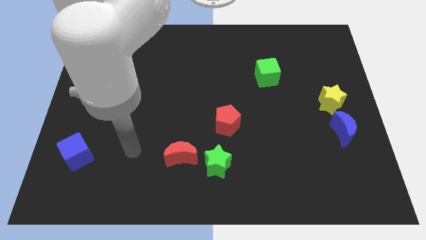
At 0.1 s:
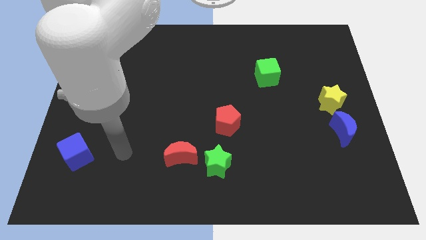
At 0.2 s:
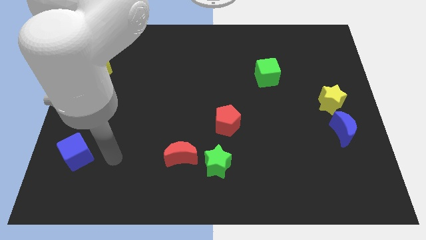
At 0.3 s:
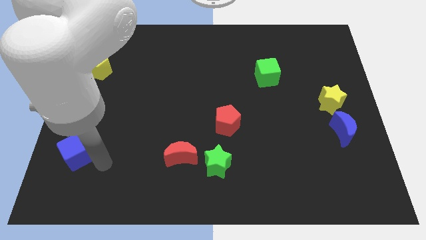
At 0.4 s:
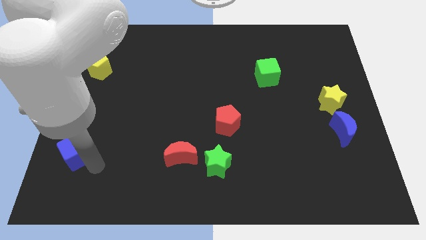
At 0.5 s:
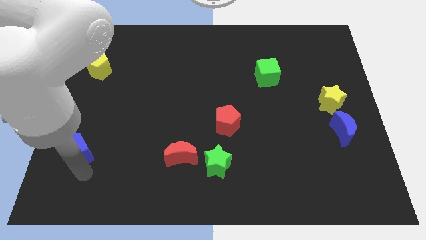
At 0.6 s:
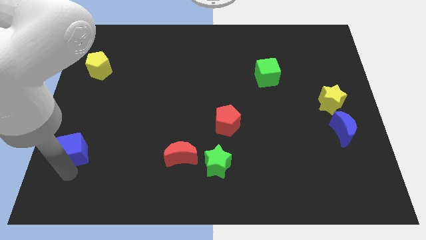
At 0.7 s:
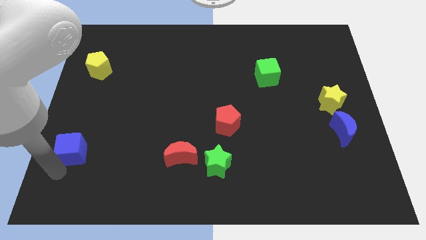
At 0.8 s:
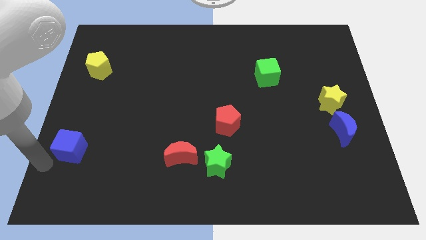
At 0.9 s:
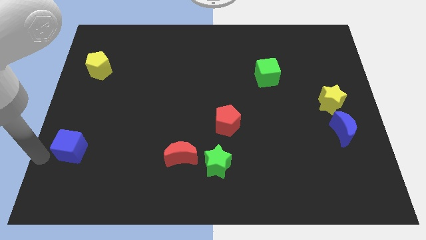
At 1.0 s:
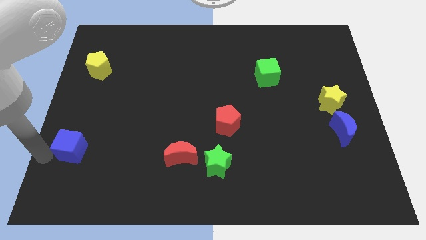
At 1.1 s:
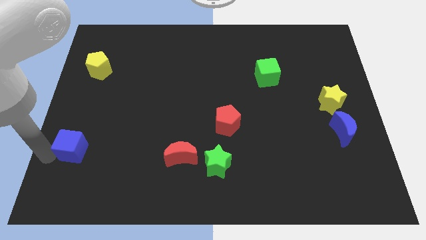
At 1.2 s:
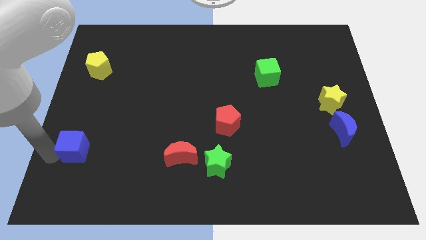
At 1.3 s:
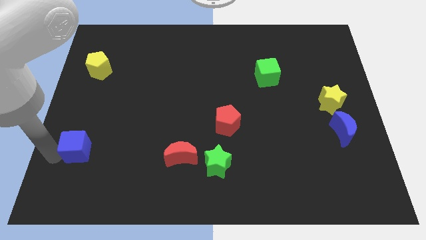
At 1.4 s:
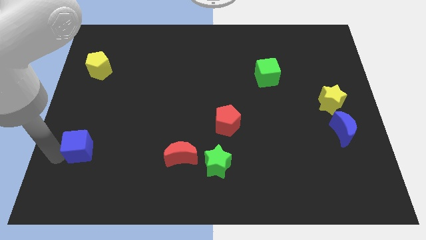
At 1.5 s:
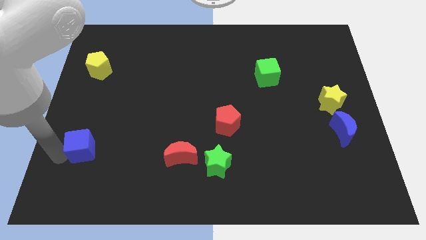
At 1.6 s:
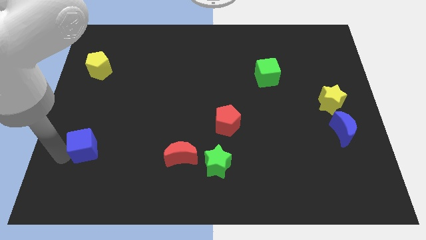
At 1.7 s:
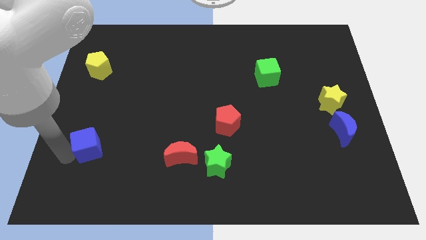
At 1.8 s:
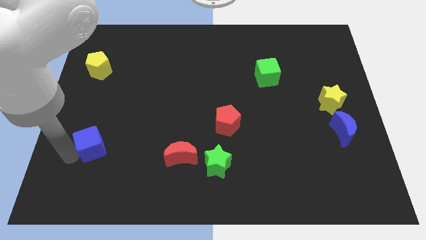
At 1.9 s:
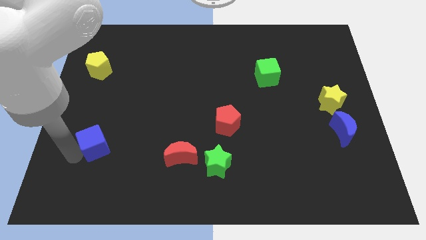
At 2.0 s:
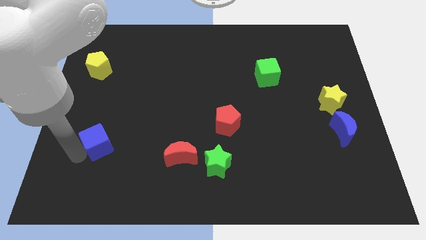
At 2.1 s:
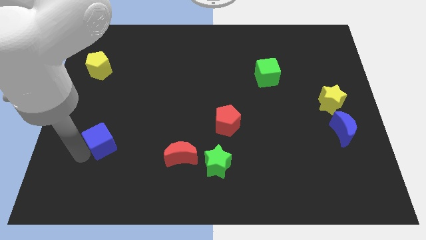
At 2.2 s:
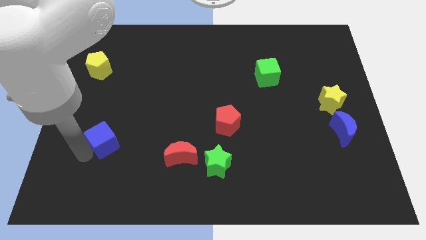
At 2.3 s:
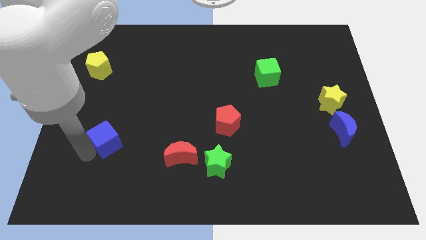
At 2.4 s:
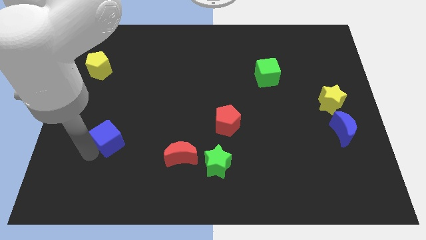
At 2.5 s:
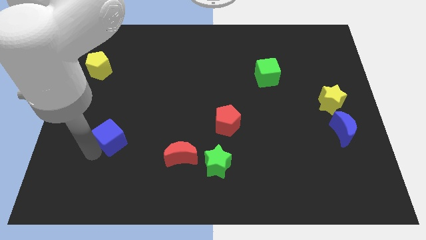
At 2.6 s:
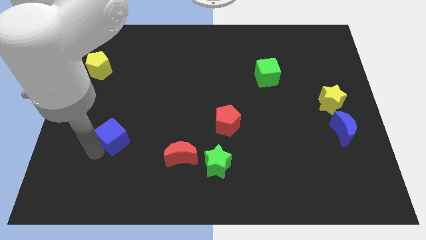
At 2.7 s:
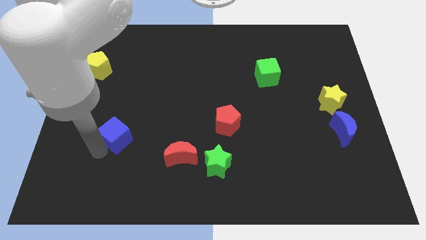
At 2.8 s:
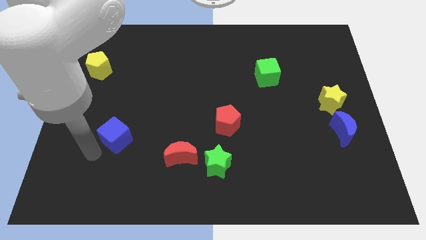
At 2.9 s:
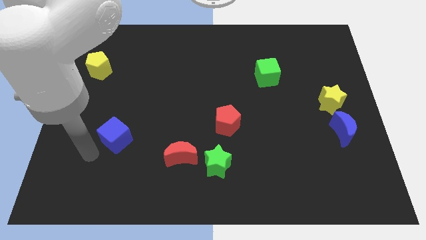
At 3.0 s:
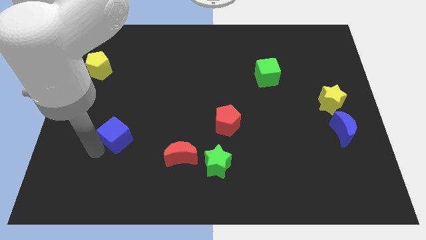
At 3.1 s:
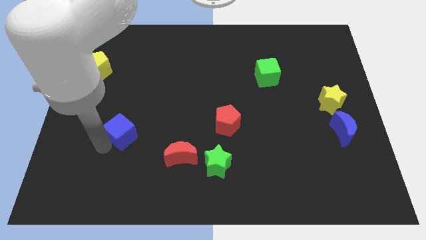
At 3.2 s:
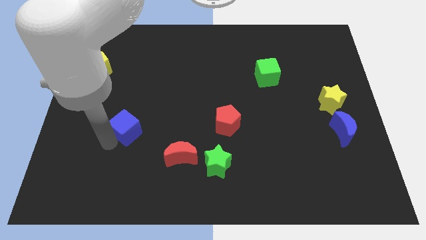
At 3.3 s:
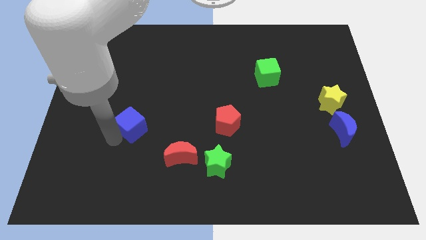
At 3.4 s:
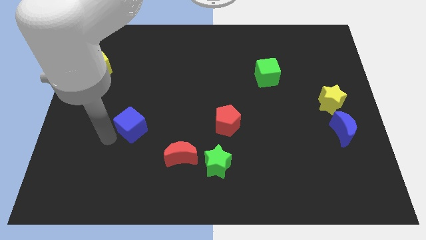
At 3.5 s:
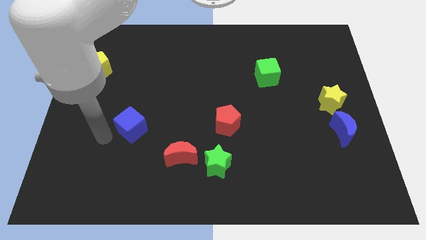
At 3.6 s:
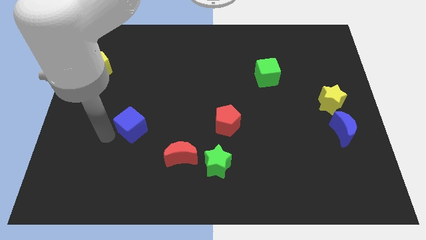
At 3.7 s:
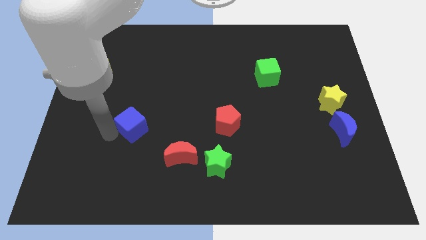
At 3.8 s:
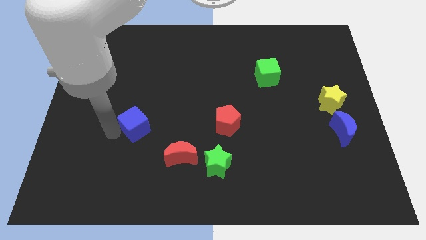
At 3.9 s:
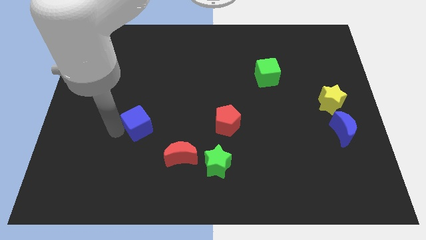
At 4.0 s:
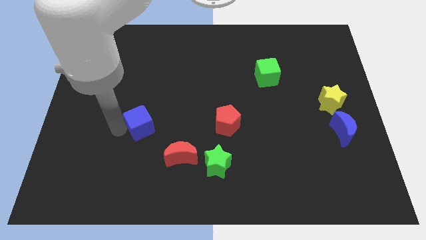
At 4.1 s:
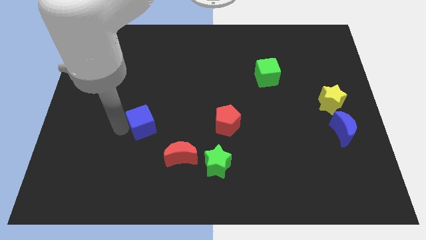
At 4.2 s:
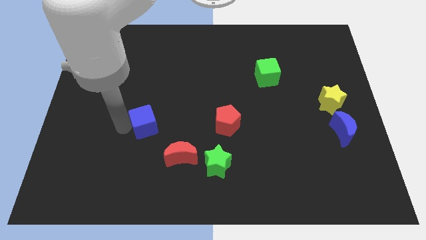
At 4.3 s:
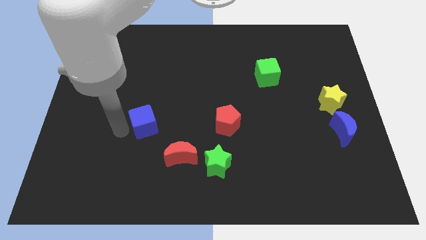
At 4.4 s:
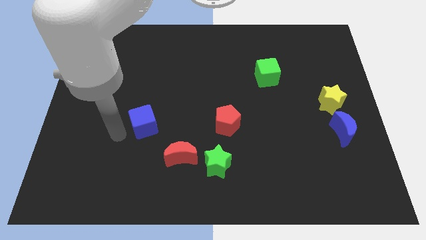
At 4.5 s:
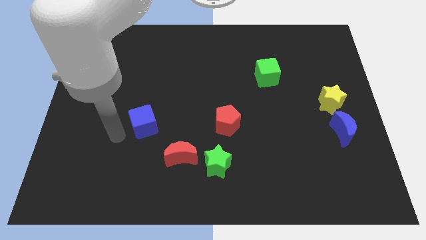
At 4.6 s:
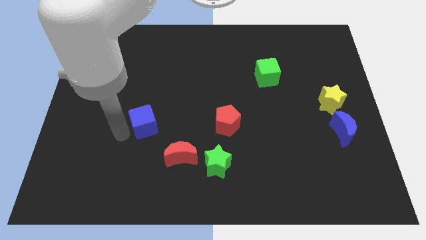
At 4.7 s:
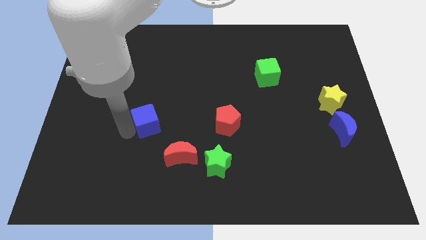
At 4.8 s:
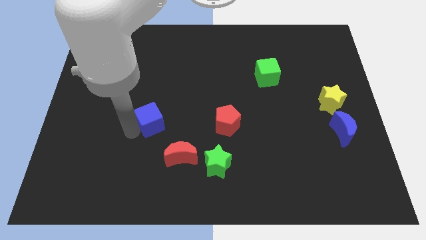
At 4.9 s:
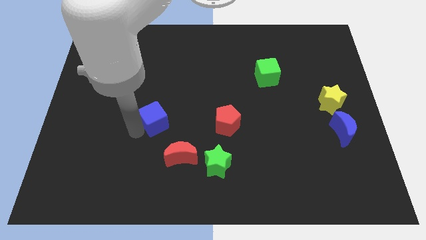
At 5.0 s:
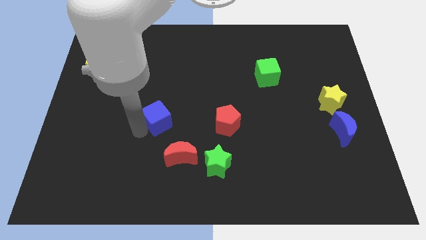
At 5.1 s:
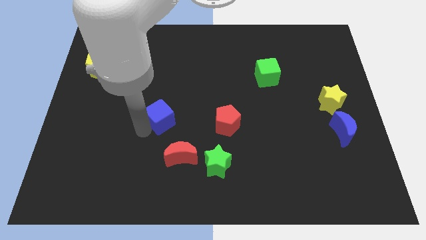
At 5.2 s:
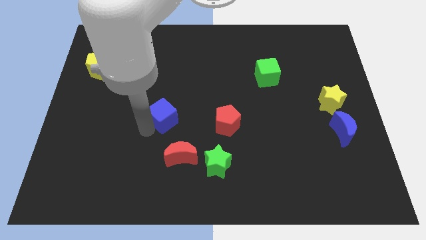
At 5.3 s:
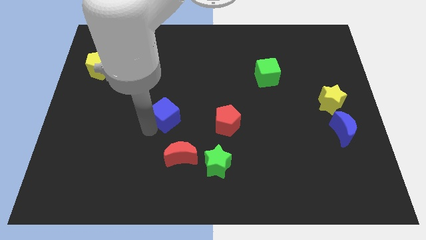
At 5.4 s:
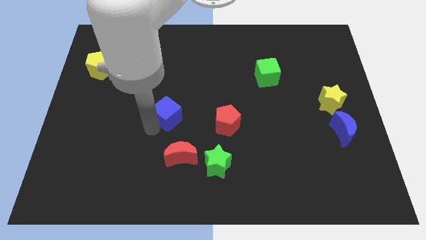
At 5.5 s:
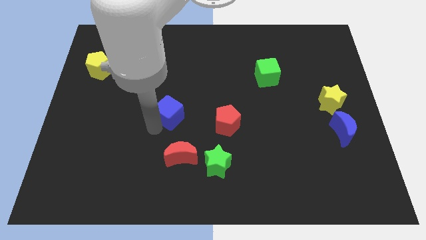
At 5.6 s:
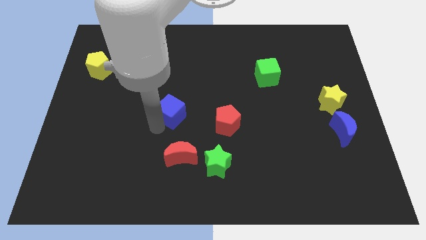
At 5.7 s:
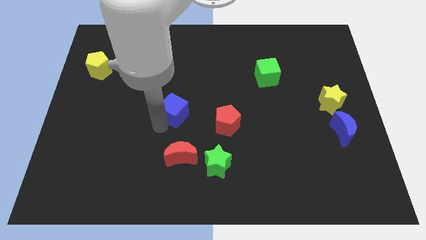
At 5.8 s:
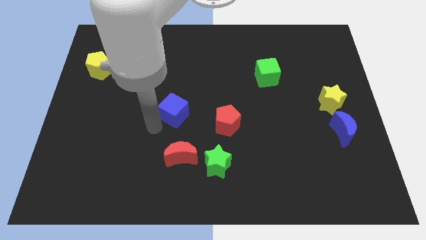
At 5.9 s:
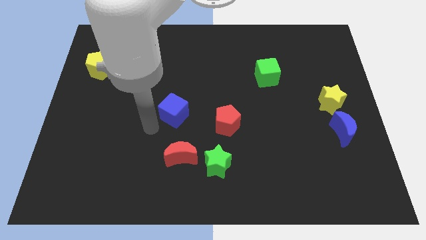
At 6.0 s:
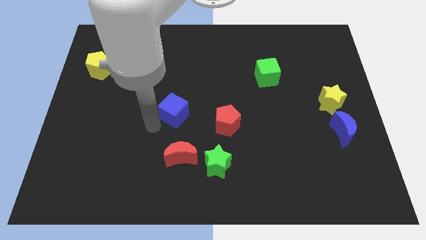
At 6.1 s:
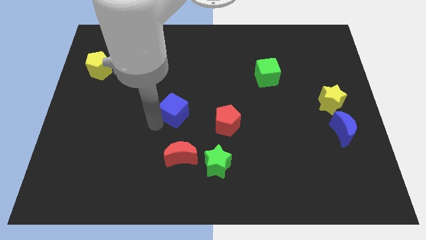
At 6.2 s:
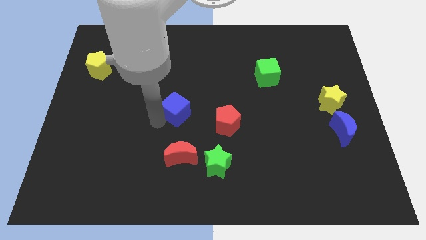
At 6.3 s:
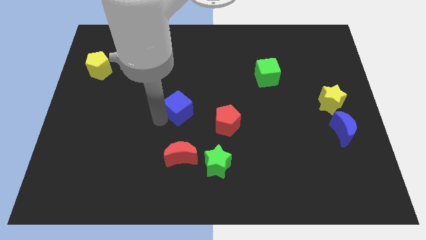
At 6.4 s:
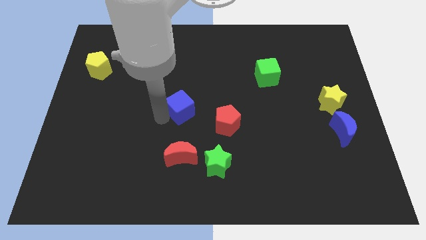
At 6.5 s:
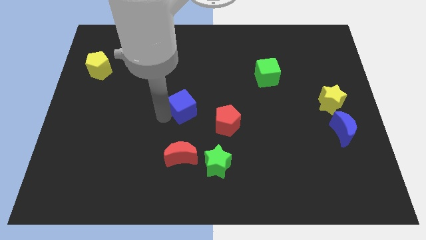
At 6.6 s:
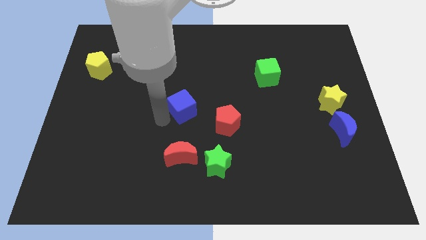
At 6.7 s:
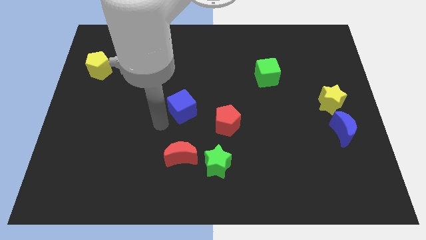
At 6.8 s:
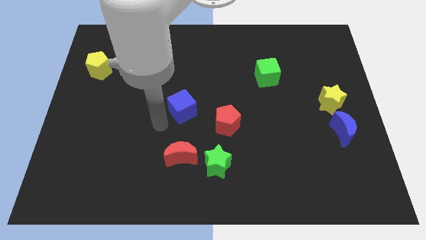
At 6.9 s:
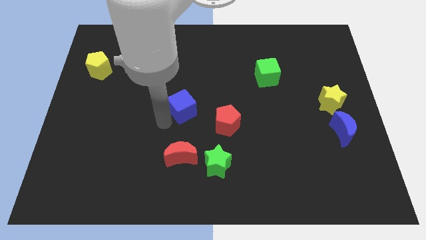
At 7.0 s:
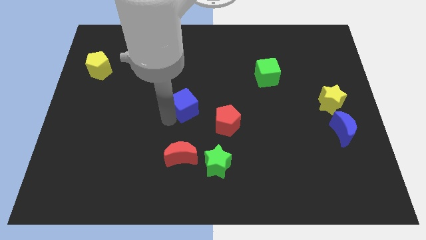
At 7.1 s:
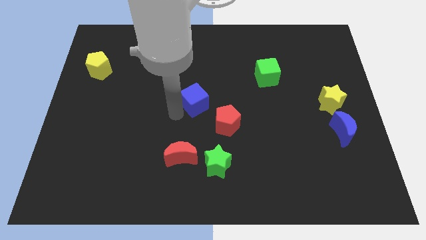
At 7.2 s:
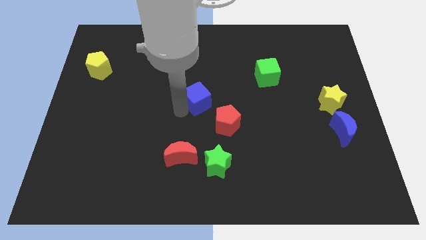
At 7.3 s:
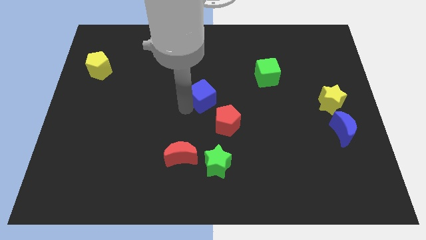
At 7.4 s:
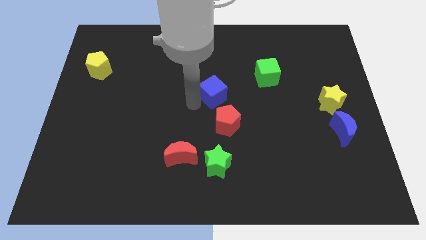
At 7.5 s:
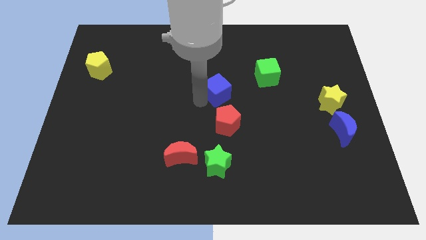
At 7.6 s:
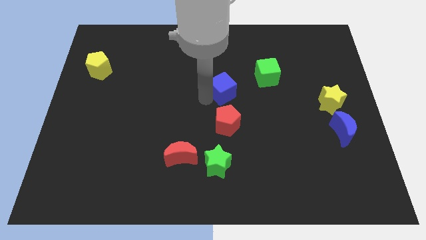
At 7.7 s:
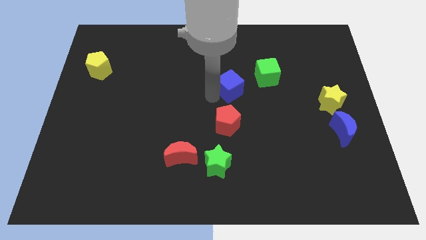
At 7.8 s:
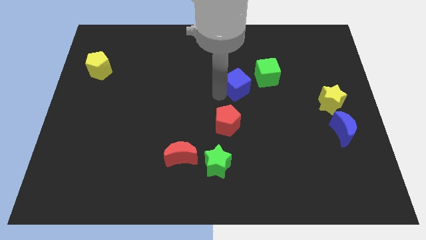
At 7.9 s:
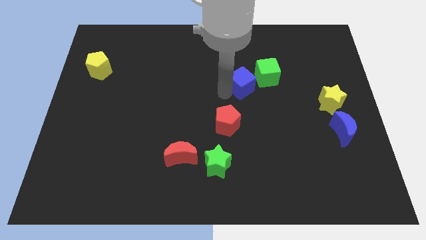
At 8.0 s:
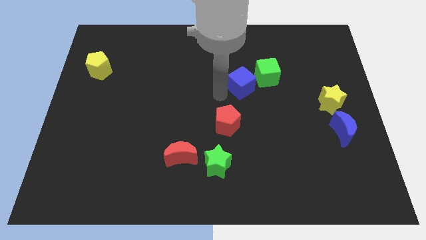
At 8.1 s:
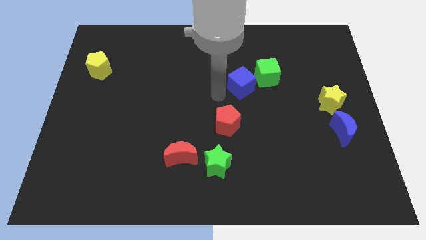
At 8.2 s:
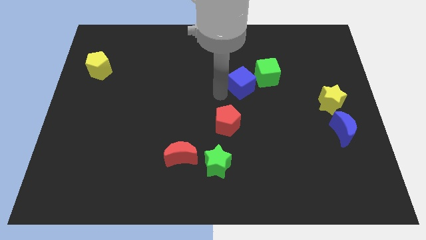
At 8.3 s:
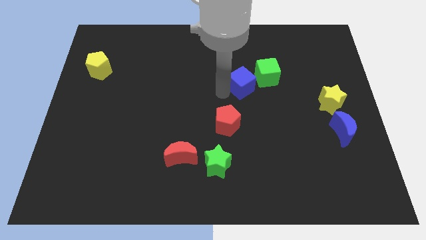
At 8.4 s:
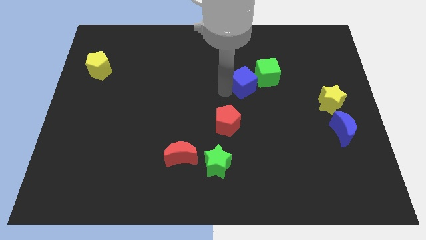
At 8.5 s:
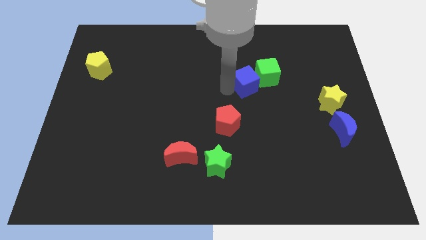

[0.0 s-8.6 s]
slide the blue cube to the green cube

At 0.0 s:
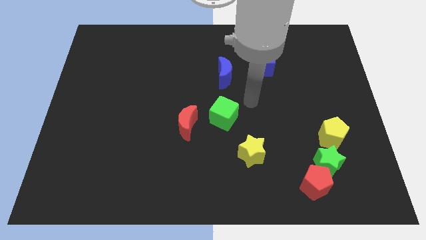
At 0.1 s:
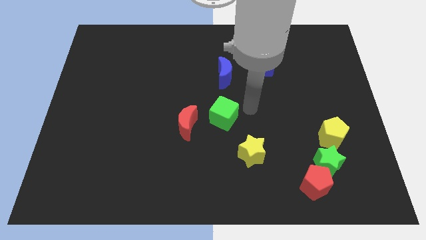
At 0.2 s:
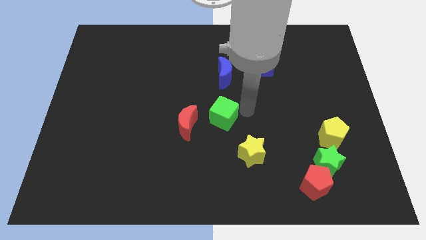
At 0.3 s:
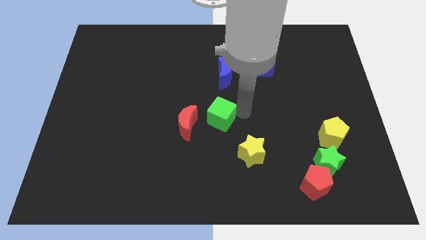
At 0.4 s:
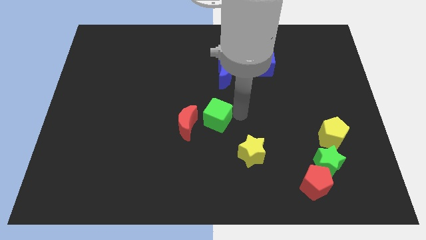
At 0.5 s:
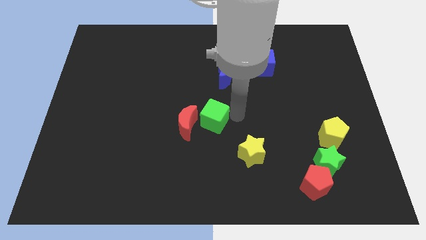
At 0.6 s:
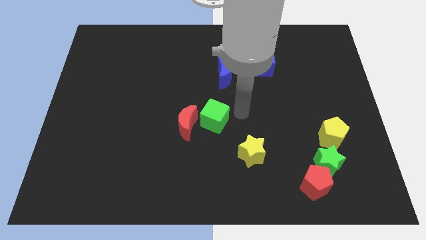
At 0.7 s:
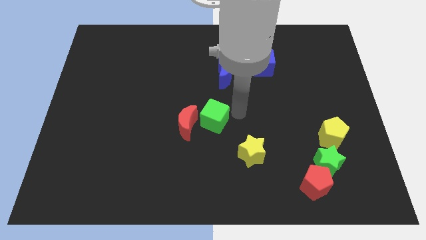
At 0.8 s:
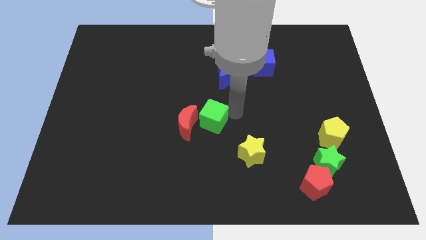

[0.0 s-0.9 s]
push the green cube close to the red moon
